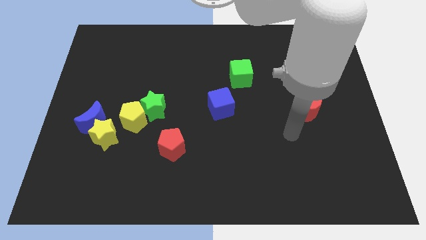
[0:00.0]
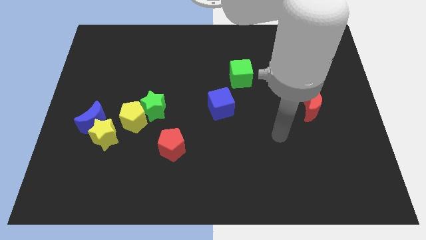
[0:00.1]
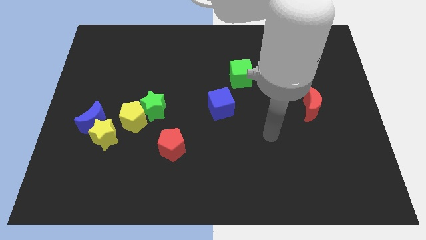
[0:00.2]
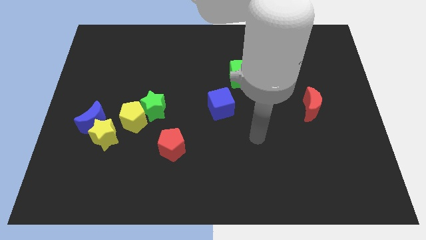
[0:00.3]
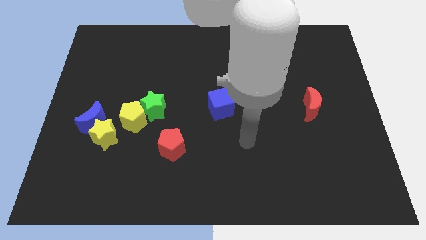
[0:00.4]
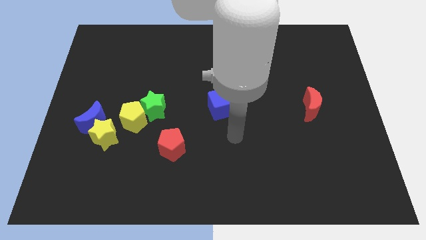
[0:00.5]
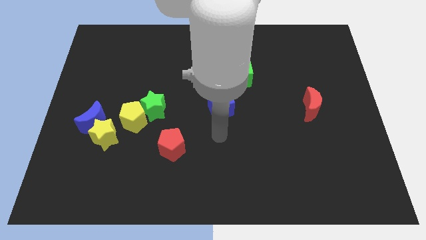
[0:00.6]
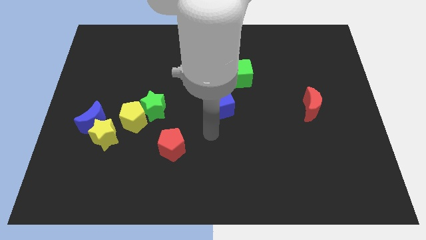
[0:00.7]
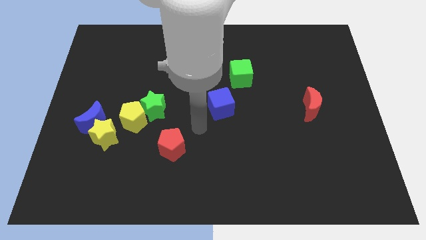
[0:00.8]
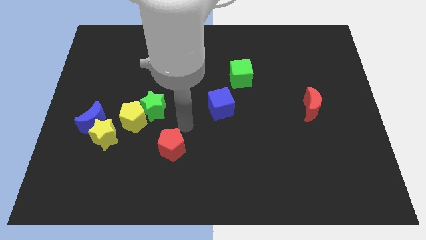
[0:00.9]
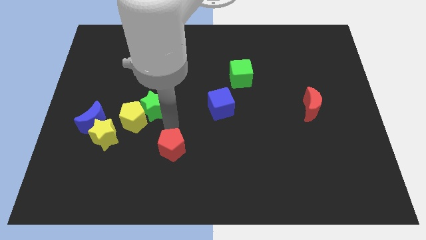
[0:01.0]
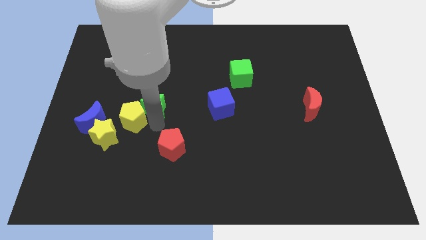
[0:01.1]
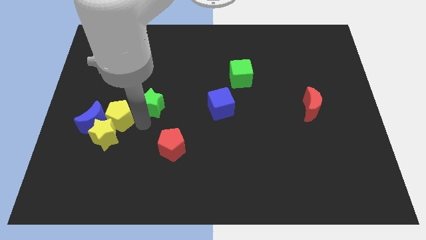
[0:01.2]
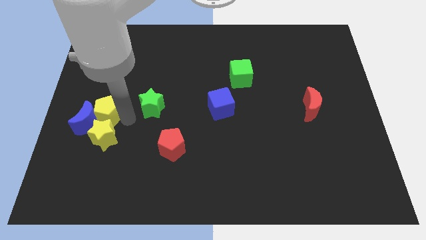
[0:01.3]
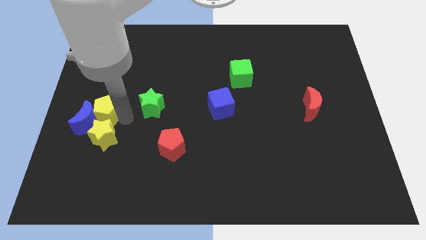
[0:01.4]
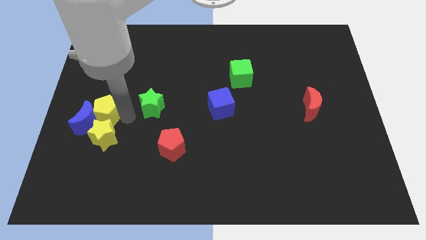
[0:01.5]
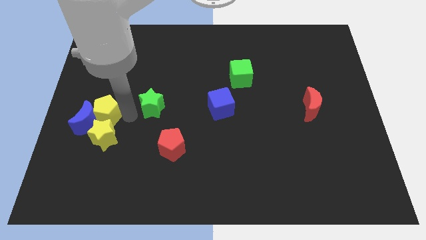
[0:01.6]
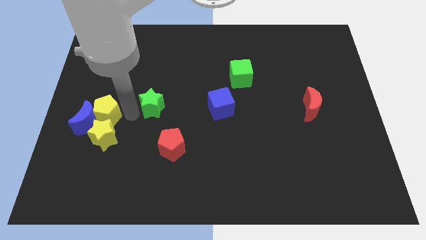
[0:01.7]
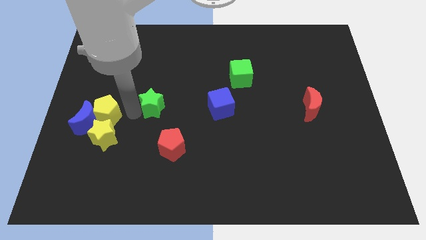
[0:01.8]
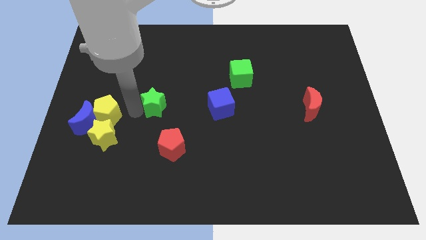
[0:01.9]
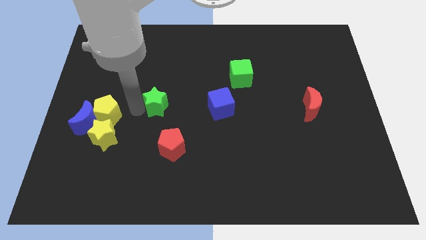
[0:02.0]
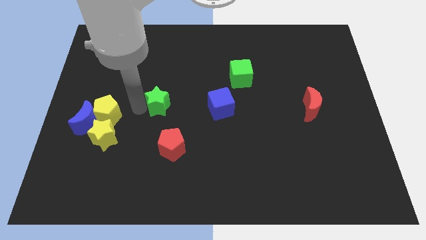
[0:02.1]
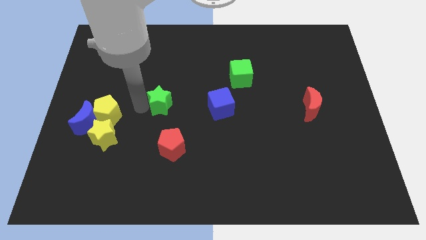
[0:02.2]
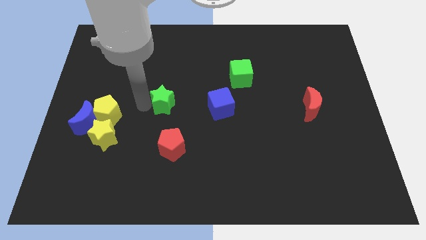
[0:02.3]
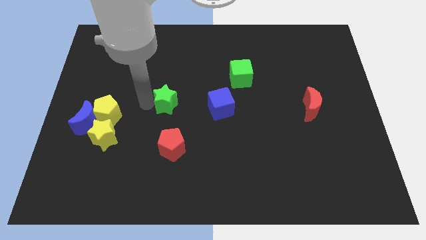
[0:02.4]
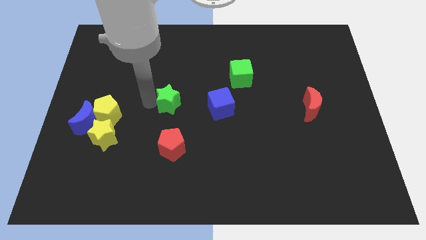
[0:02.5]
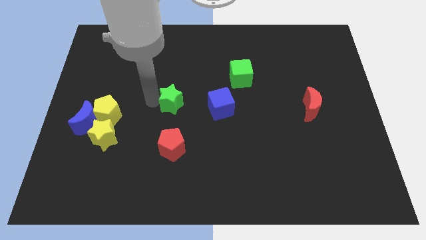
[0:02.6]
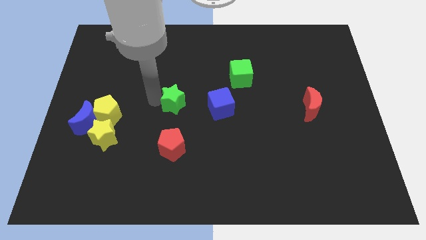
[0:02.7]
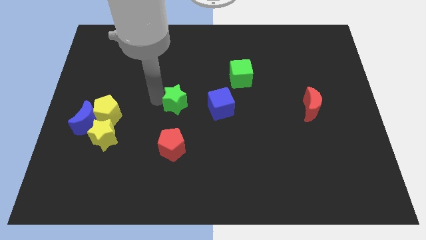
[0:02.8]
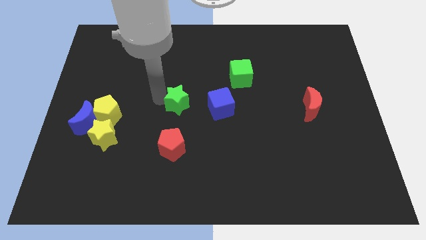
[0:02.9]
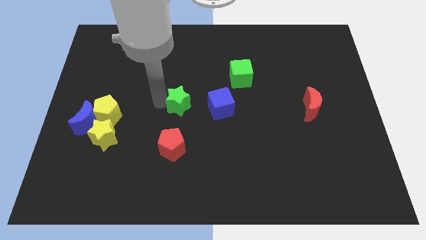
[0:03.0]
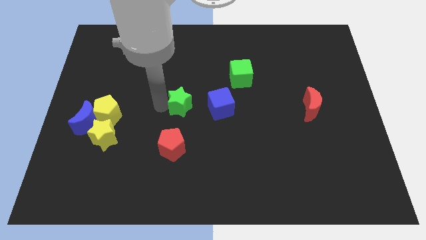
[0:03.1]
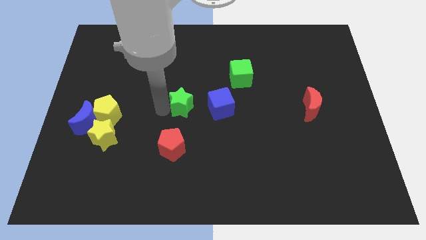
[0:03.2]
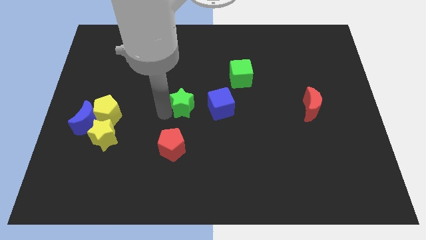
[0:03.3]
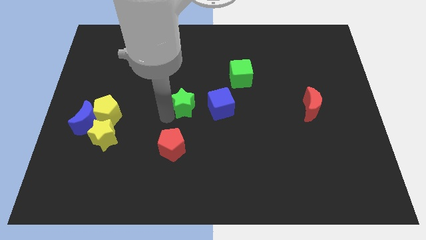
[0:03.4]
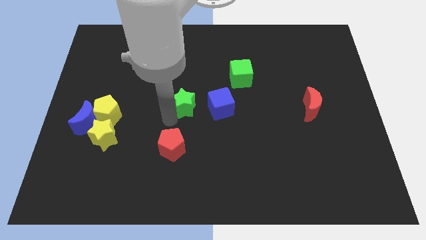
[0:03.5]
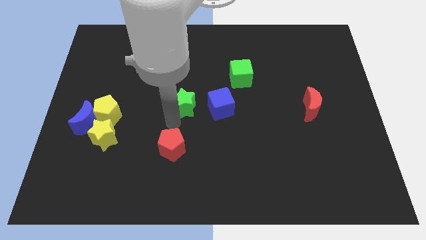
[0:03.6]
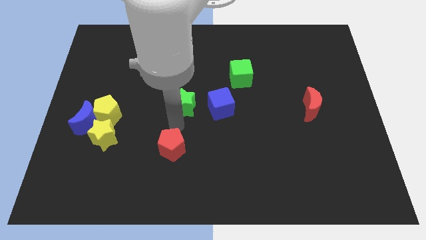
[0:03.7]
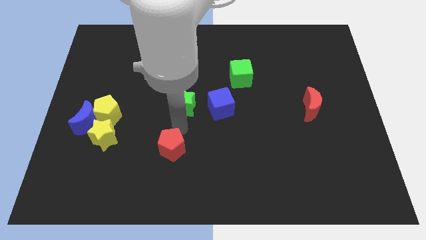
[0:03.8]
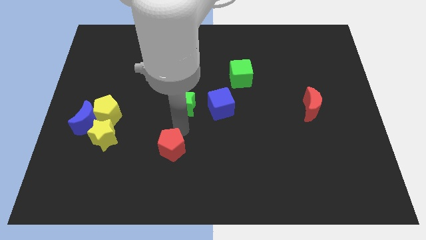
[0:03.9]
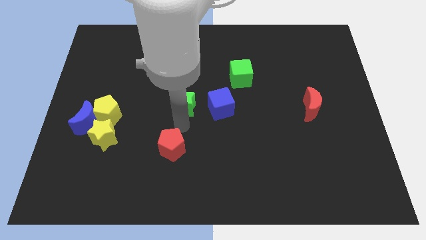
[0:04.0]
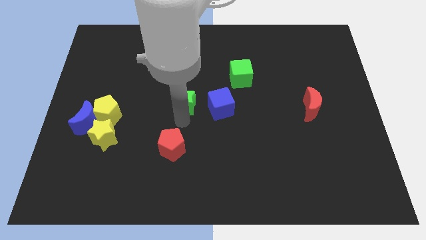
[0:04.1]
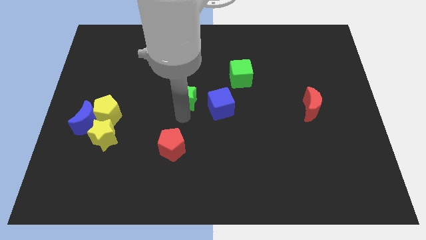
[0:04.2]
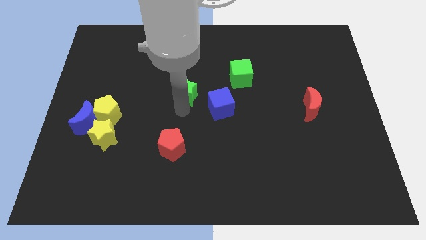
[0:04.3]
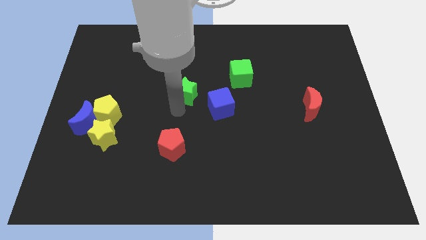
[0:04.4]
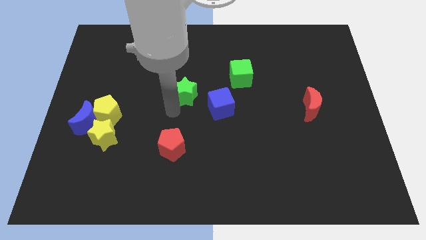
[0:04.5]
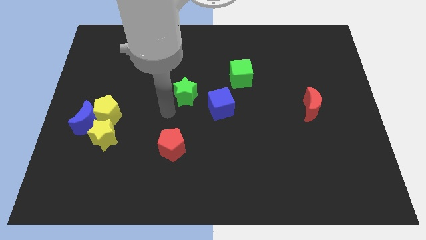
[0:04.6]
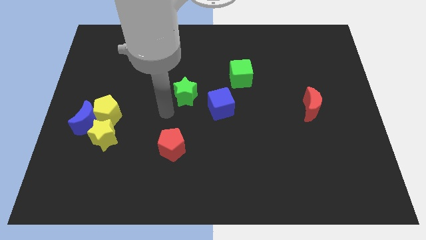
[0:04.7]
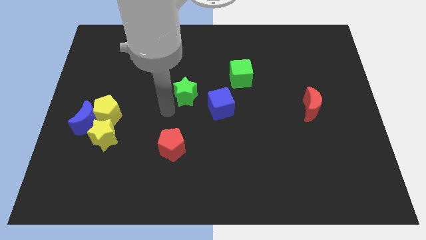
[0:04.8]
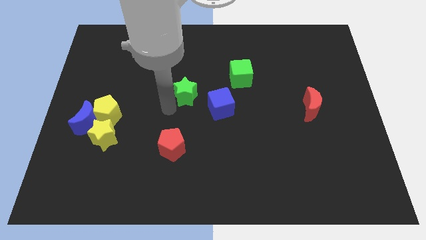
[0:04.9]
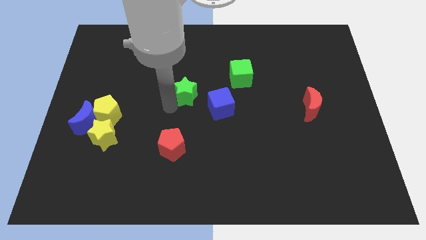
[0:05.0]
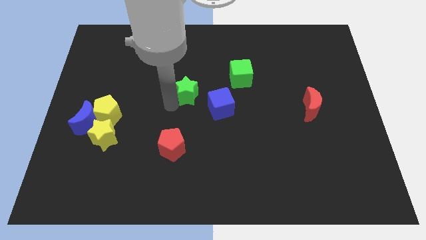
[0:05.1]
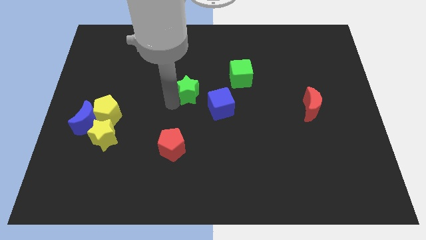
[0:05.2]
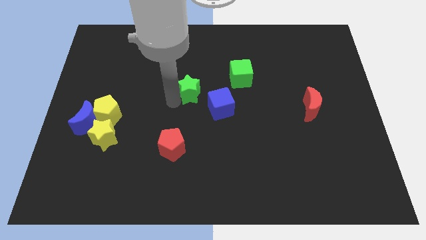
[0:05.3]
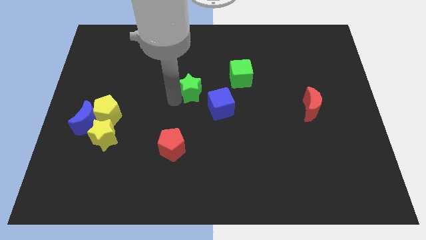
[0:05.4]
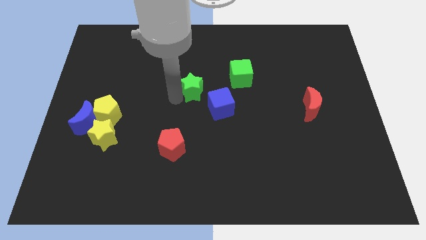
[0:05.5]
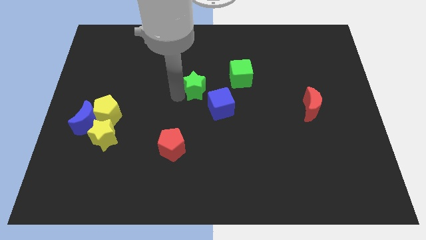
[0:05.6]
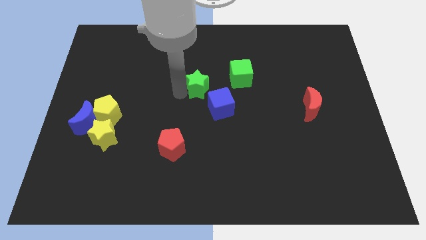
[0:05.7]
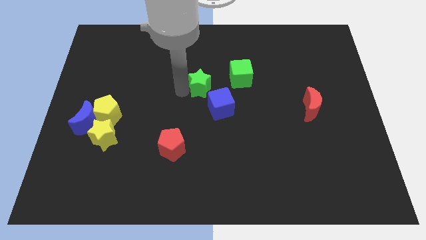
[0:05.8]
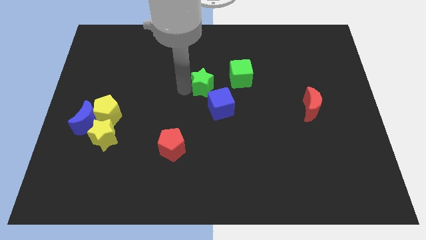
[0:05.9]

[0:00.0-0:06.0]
push the green star above the blue cube
